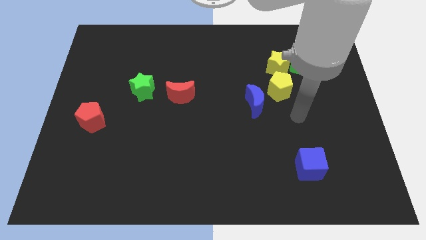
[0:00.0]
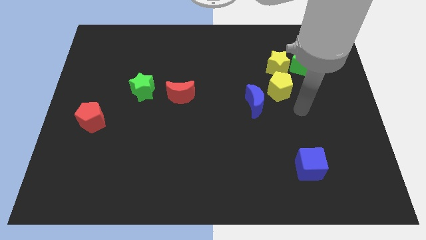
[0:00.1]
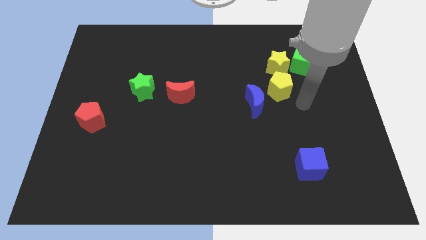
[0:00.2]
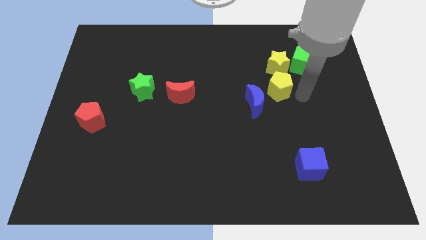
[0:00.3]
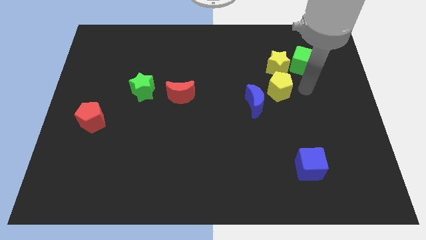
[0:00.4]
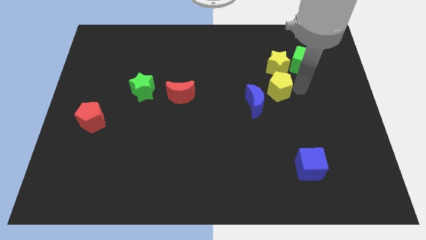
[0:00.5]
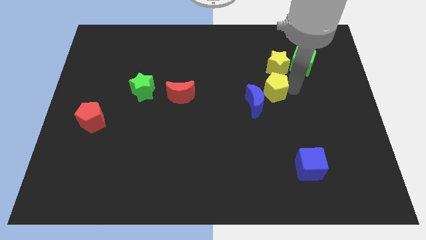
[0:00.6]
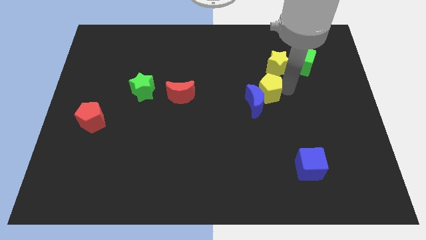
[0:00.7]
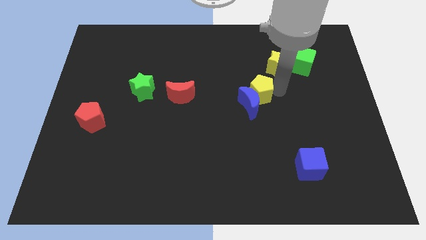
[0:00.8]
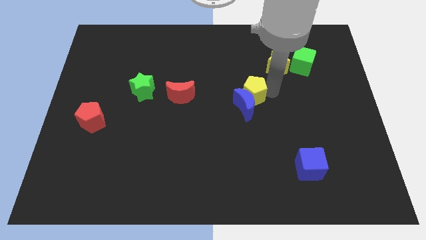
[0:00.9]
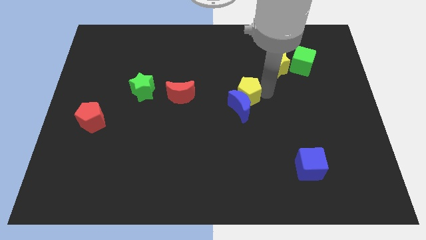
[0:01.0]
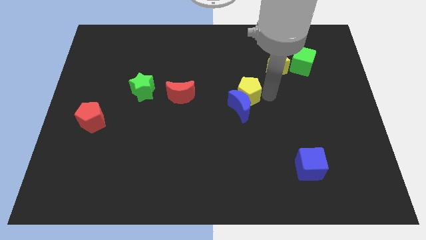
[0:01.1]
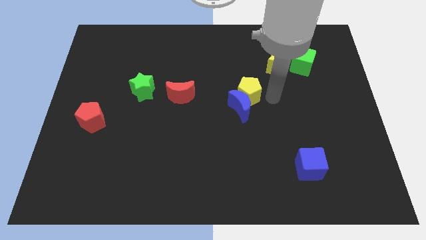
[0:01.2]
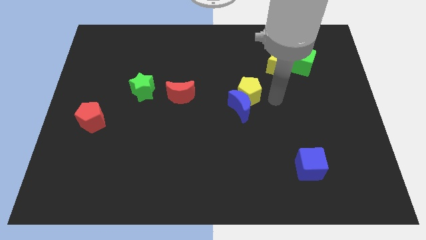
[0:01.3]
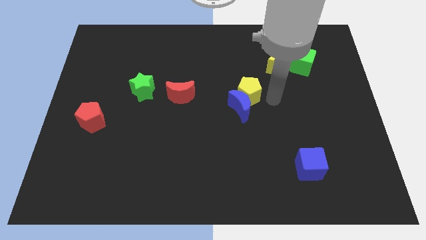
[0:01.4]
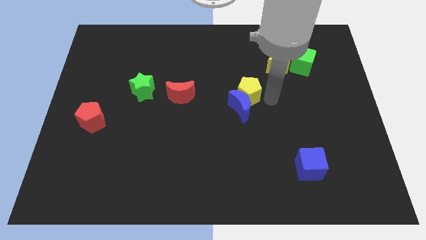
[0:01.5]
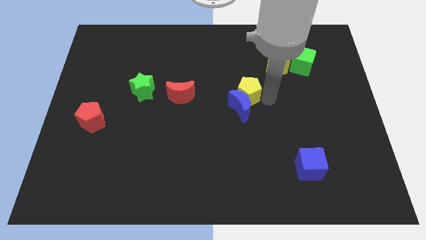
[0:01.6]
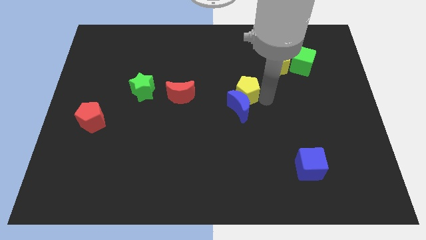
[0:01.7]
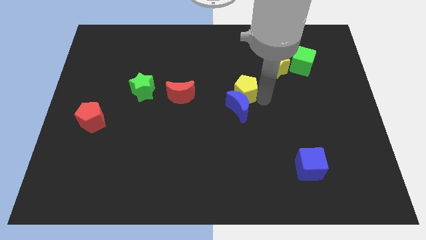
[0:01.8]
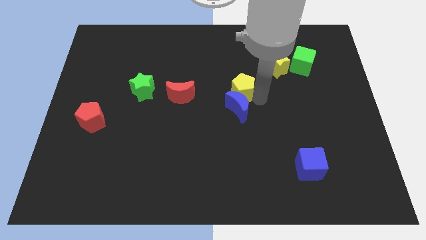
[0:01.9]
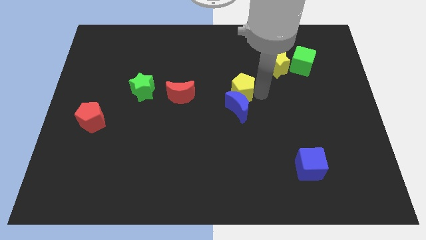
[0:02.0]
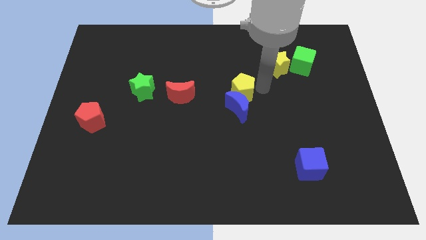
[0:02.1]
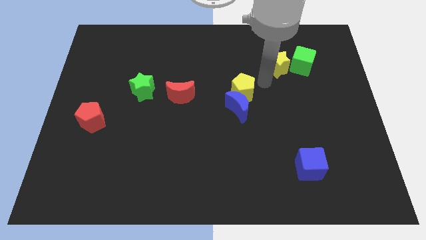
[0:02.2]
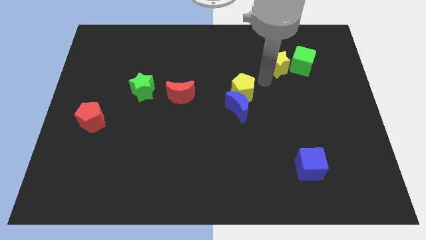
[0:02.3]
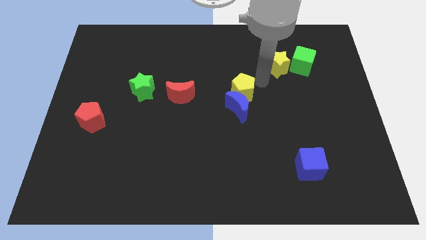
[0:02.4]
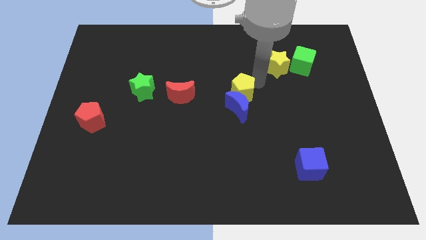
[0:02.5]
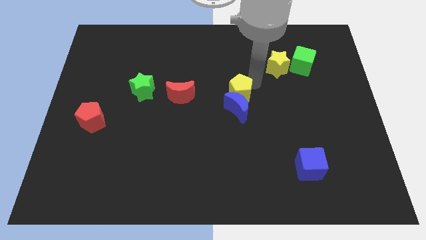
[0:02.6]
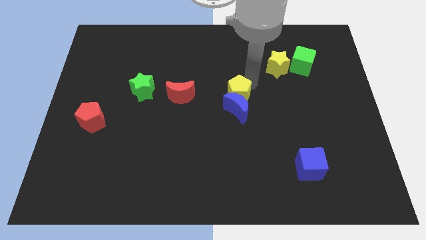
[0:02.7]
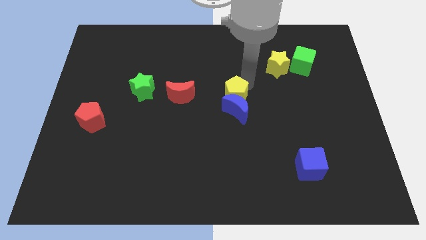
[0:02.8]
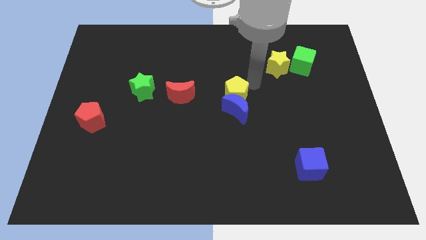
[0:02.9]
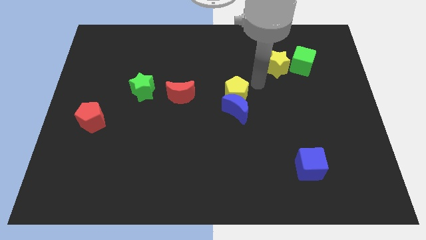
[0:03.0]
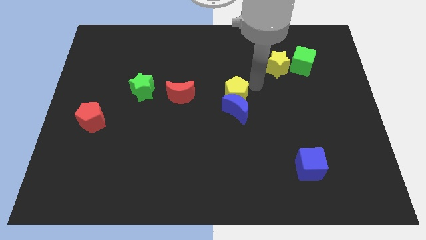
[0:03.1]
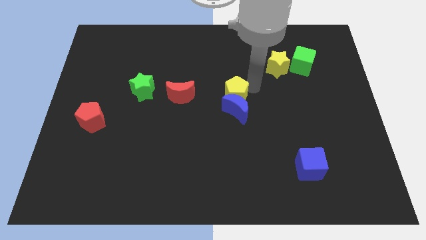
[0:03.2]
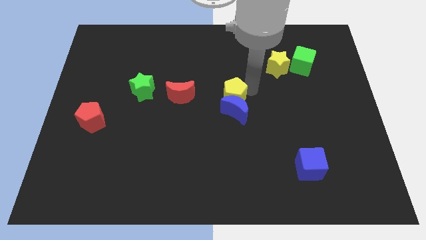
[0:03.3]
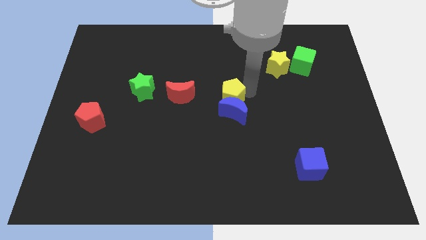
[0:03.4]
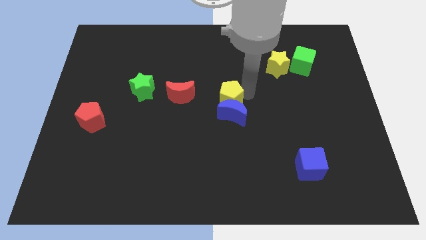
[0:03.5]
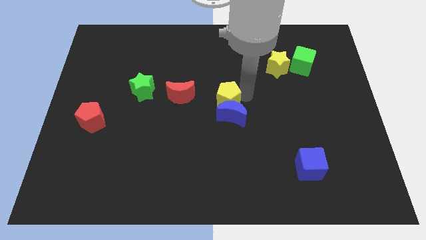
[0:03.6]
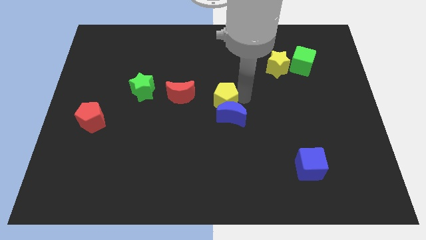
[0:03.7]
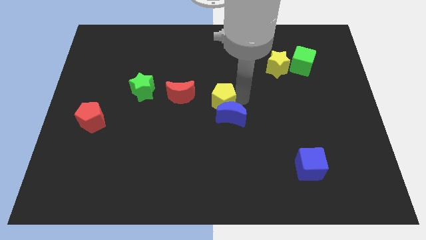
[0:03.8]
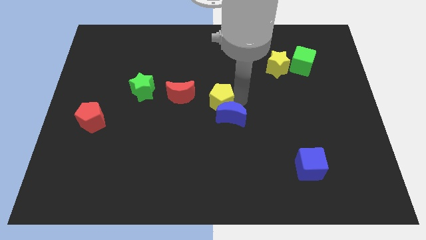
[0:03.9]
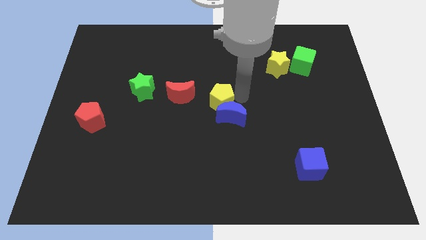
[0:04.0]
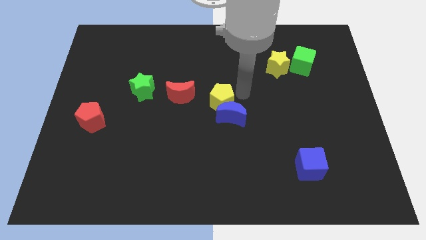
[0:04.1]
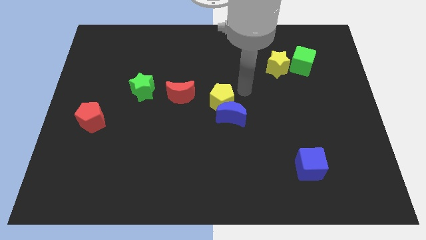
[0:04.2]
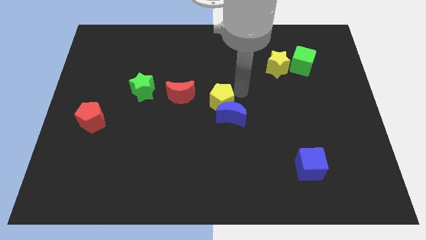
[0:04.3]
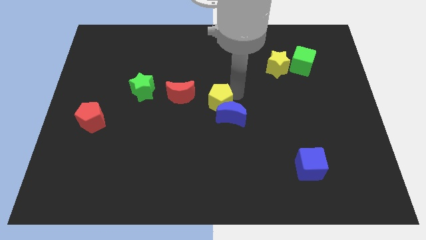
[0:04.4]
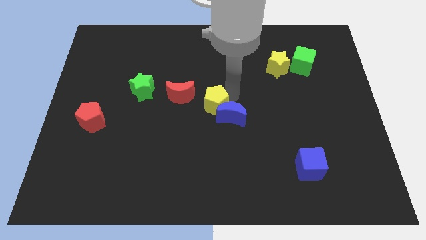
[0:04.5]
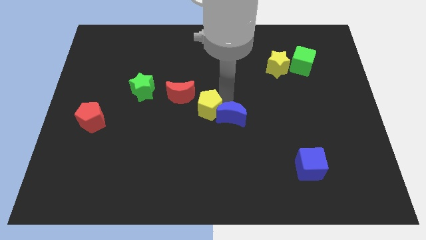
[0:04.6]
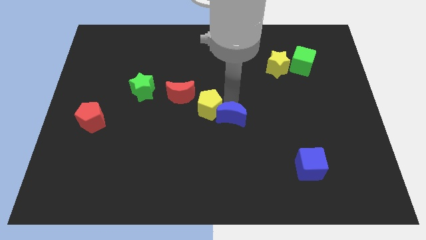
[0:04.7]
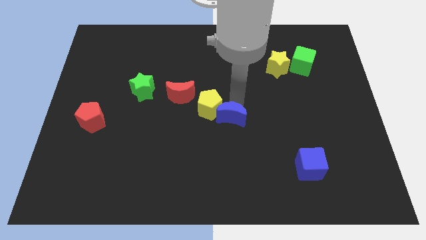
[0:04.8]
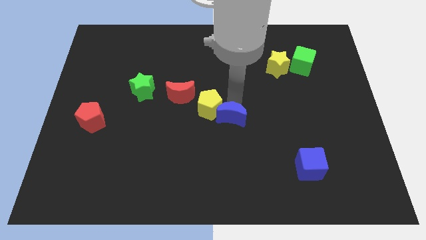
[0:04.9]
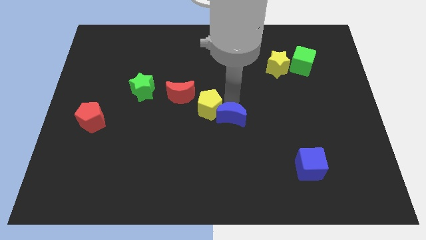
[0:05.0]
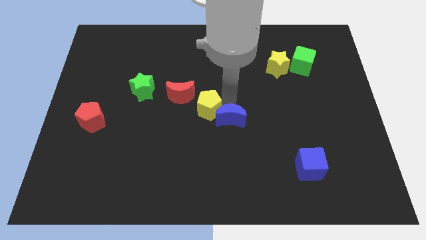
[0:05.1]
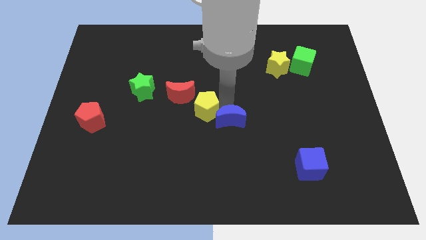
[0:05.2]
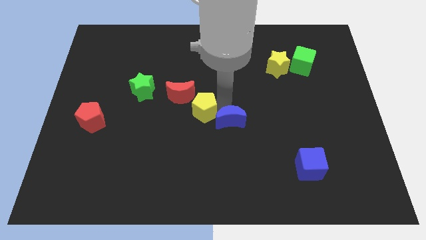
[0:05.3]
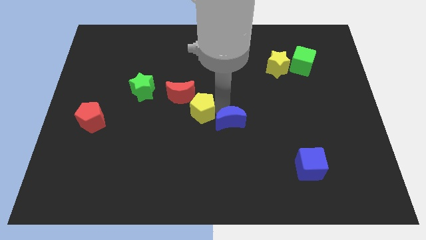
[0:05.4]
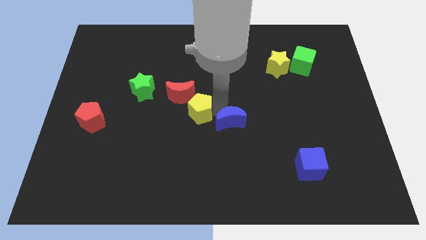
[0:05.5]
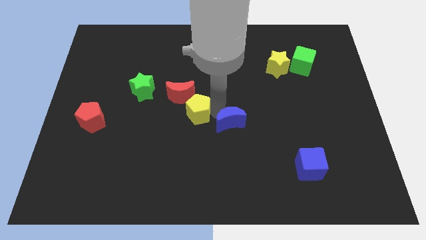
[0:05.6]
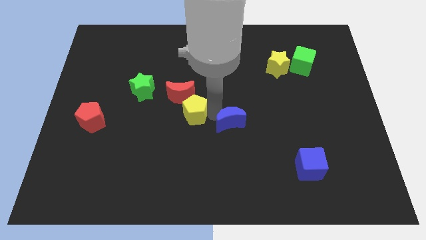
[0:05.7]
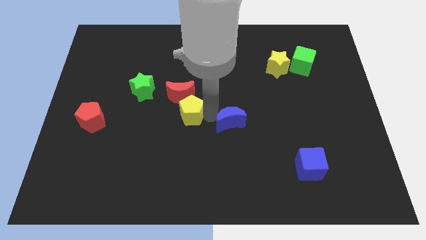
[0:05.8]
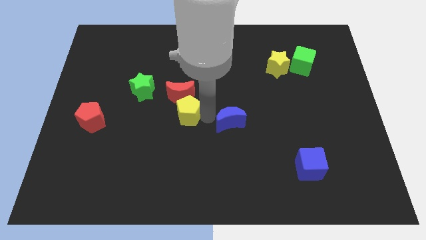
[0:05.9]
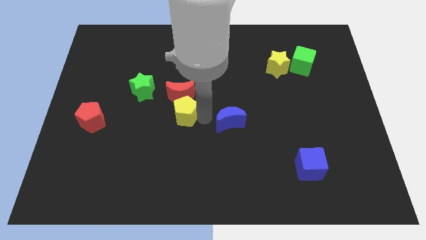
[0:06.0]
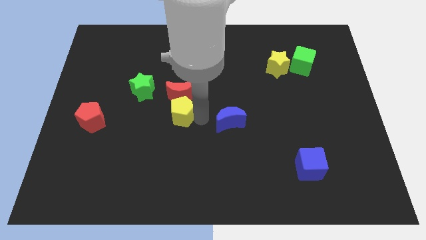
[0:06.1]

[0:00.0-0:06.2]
push the yellow pentagon to the bottom right side of the green star

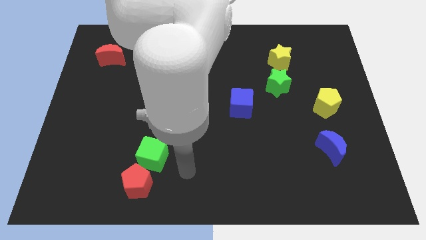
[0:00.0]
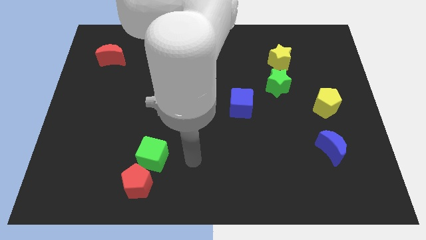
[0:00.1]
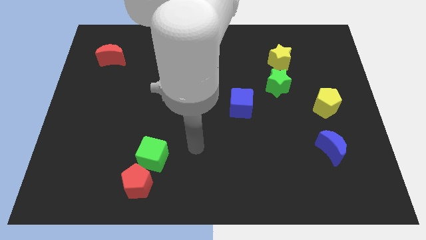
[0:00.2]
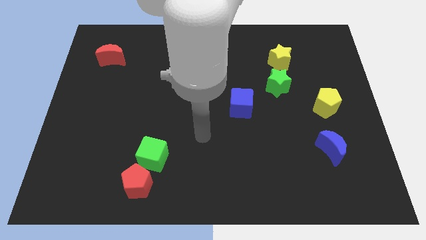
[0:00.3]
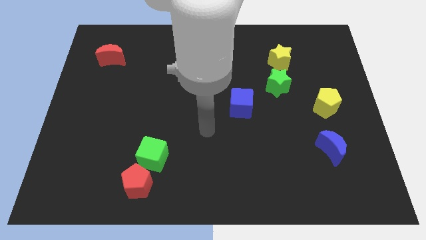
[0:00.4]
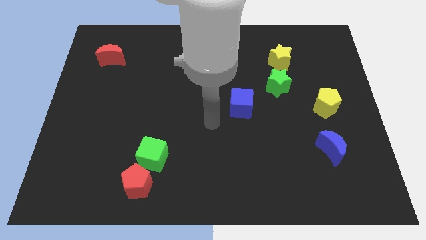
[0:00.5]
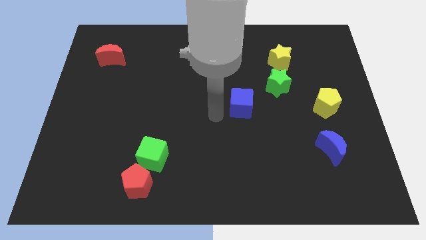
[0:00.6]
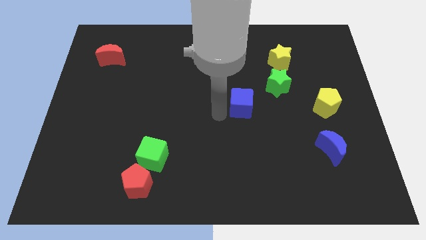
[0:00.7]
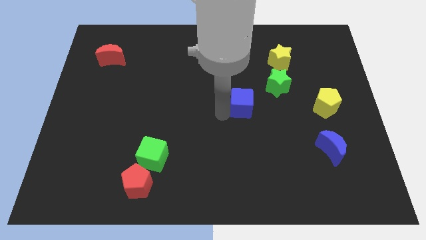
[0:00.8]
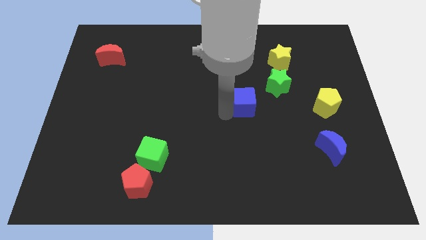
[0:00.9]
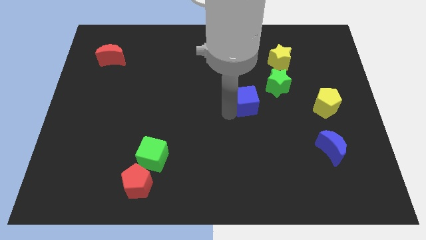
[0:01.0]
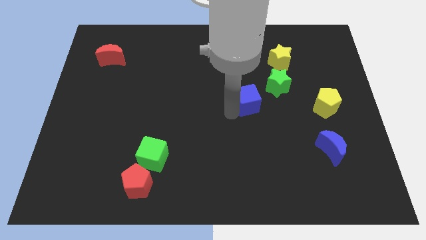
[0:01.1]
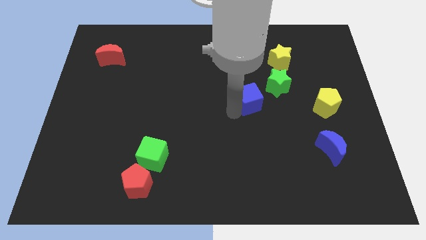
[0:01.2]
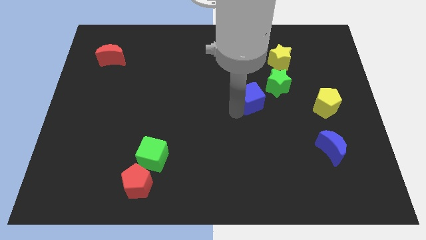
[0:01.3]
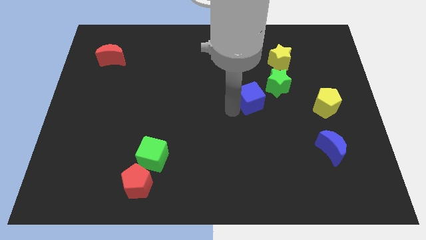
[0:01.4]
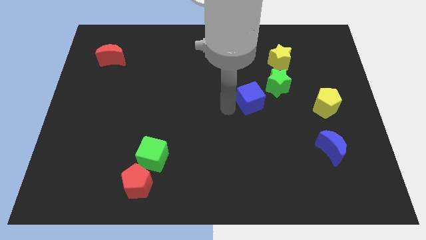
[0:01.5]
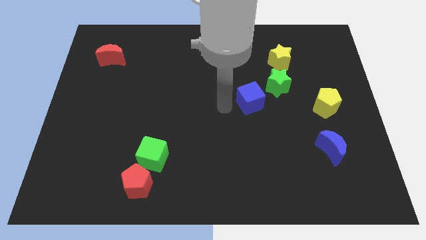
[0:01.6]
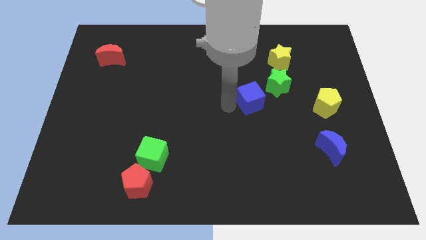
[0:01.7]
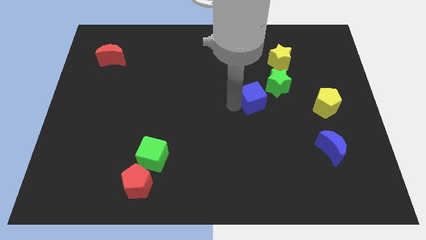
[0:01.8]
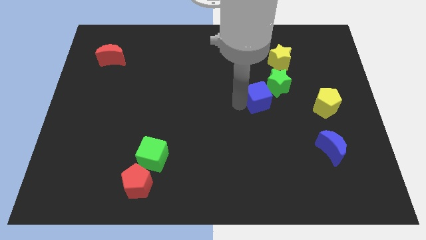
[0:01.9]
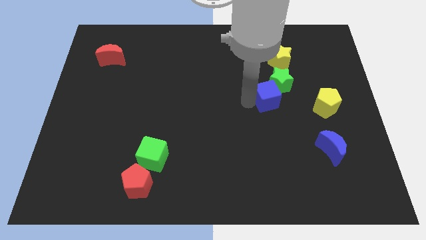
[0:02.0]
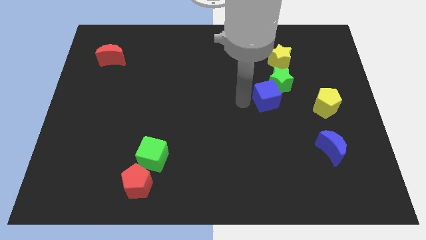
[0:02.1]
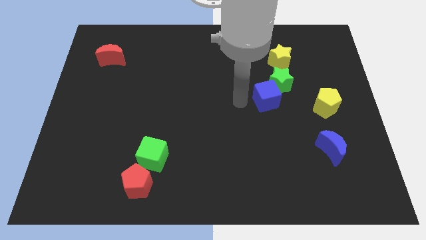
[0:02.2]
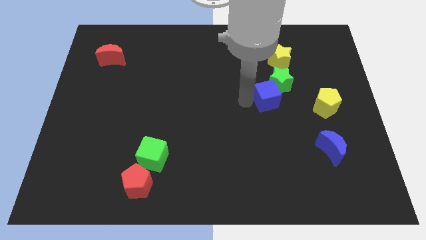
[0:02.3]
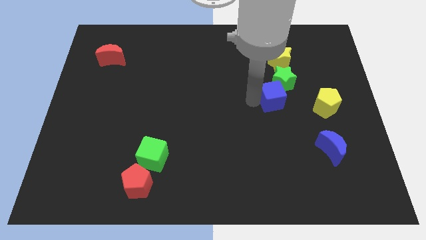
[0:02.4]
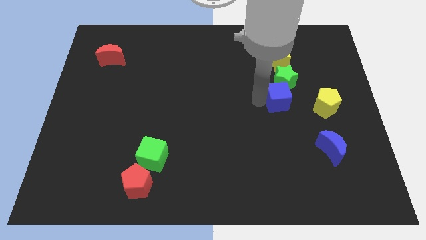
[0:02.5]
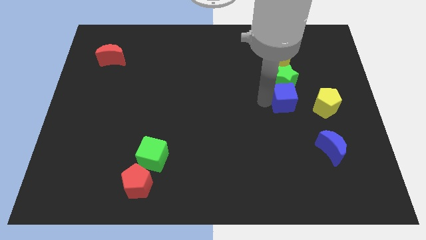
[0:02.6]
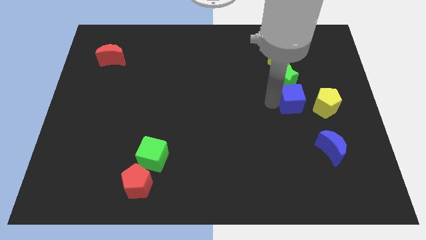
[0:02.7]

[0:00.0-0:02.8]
put the blue cube to the top left of the yellow pentagon
